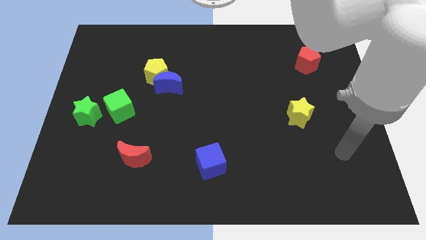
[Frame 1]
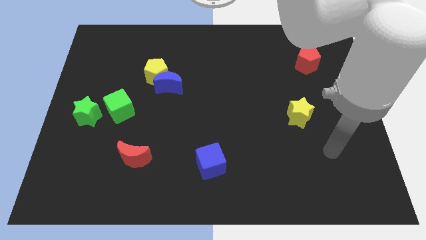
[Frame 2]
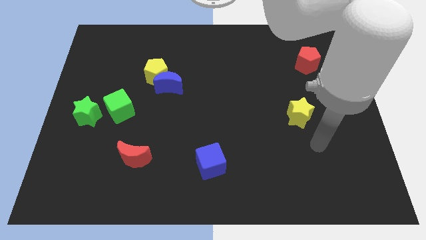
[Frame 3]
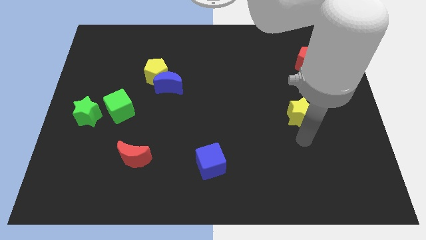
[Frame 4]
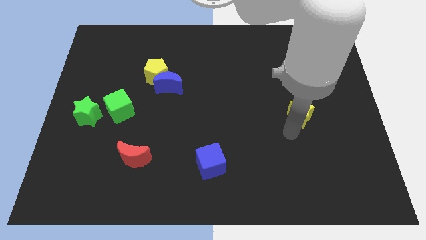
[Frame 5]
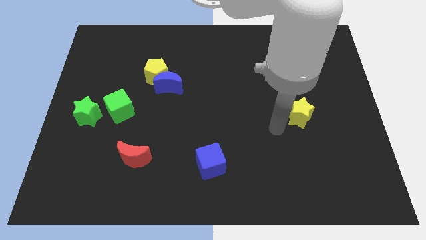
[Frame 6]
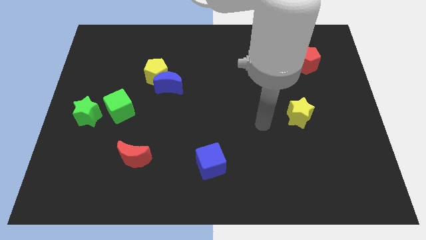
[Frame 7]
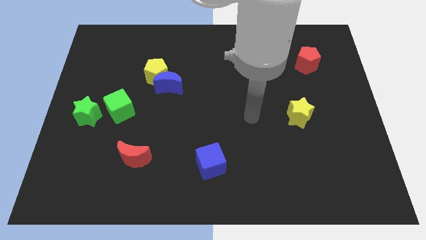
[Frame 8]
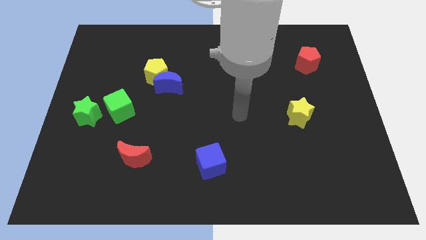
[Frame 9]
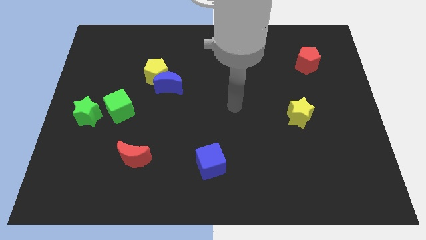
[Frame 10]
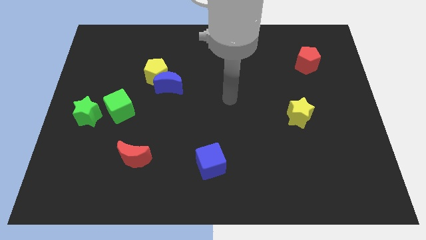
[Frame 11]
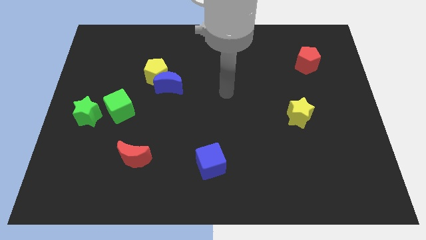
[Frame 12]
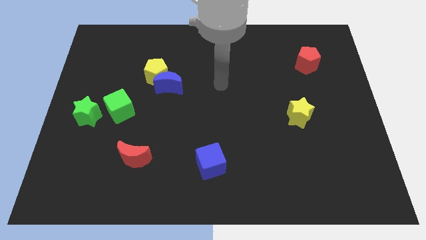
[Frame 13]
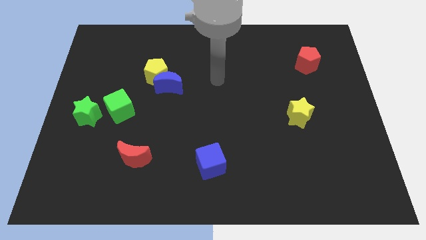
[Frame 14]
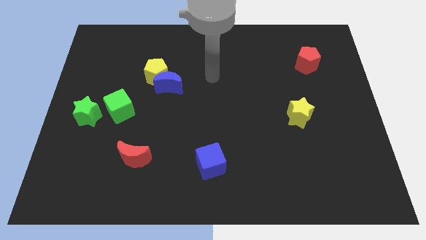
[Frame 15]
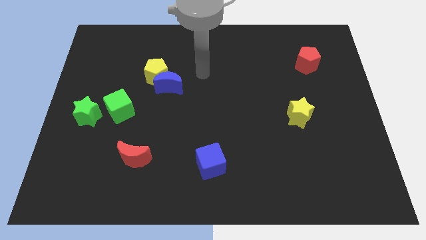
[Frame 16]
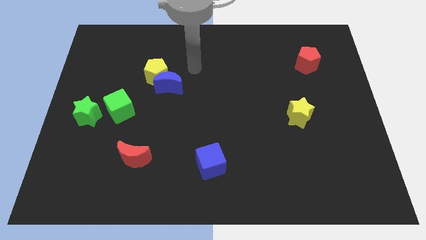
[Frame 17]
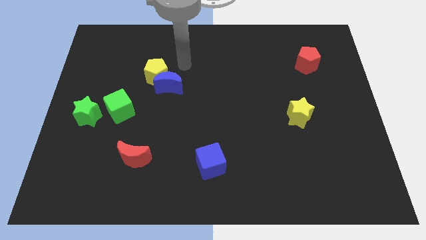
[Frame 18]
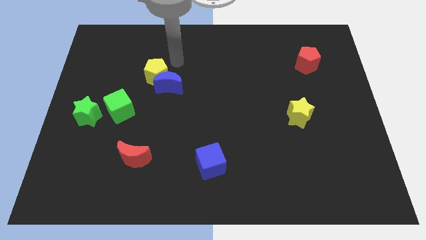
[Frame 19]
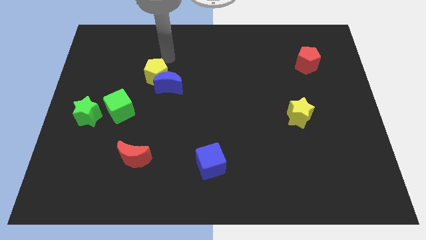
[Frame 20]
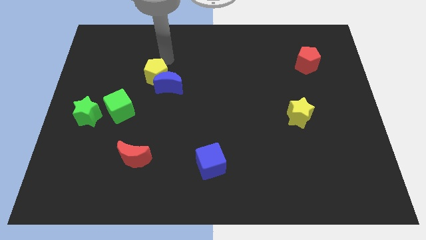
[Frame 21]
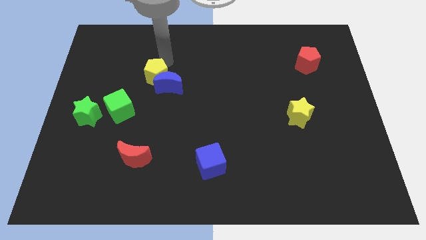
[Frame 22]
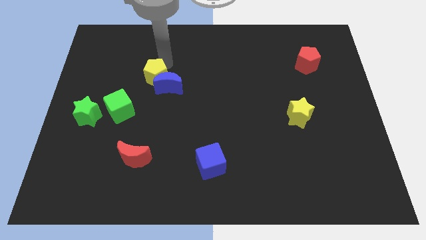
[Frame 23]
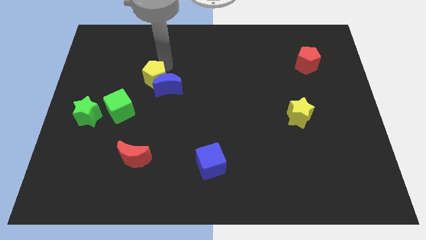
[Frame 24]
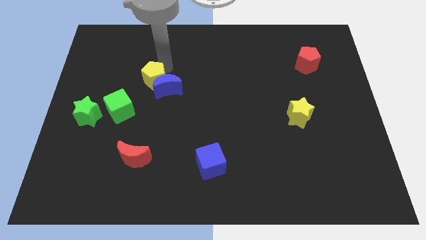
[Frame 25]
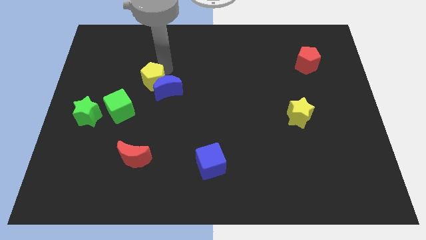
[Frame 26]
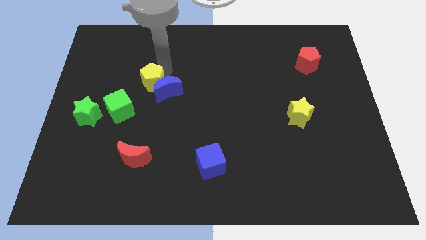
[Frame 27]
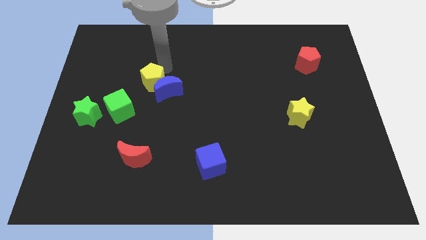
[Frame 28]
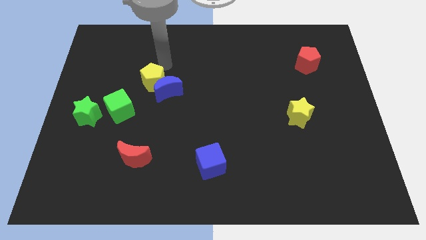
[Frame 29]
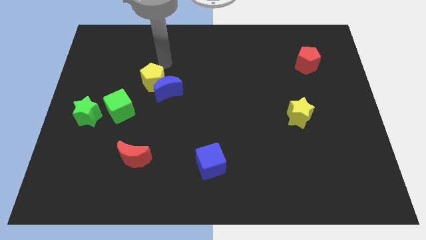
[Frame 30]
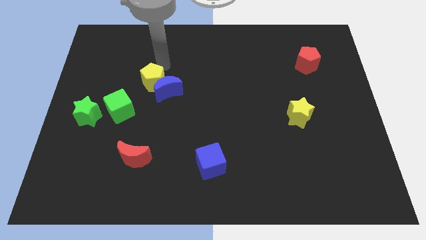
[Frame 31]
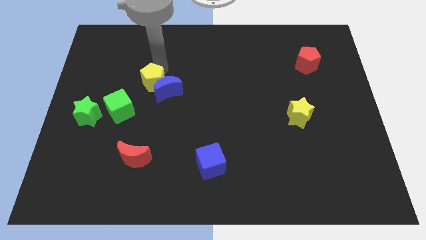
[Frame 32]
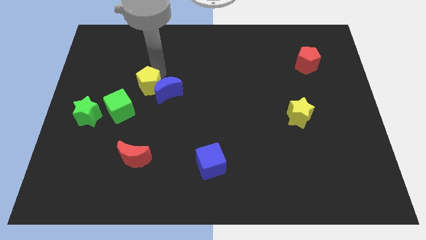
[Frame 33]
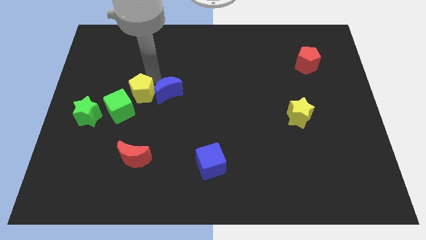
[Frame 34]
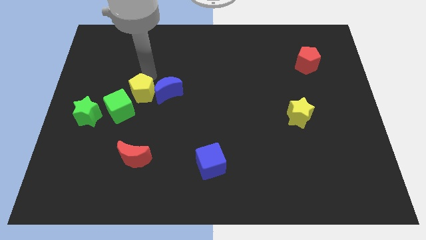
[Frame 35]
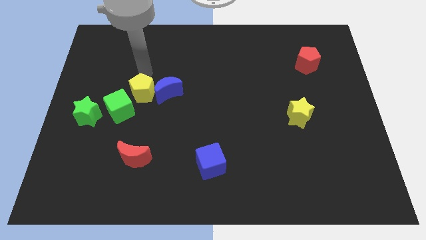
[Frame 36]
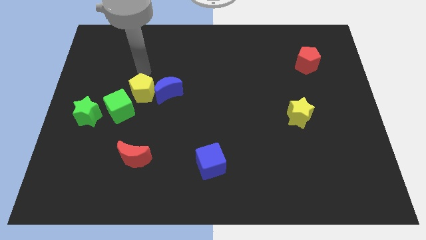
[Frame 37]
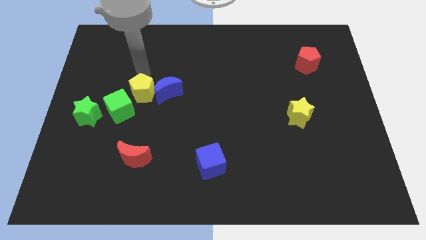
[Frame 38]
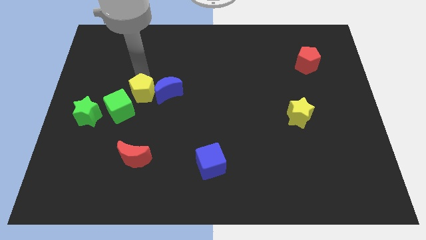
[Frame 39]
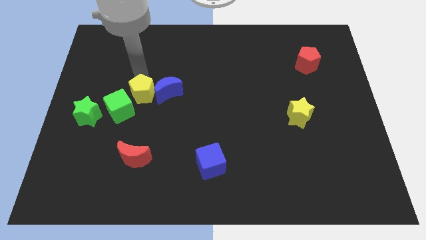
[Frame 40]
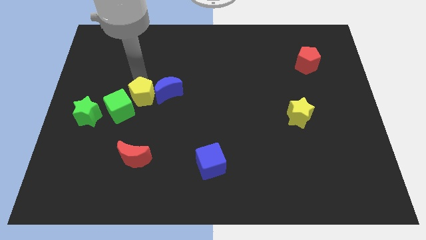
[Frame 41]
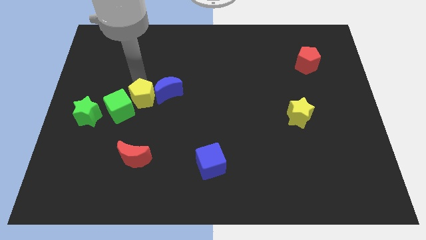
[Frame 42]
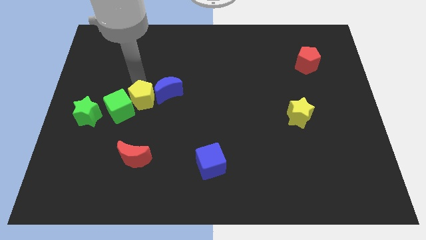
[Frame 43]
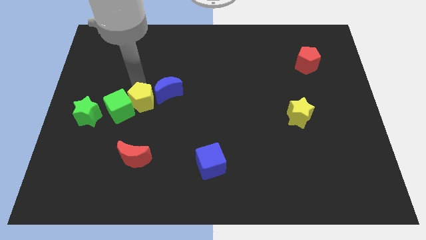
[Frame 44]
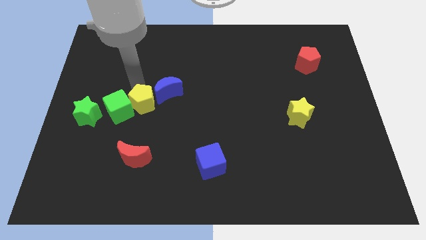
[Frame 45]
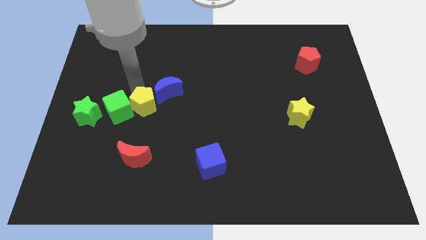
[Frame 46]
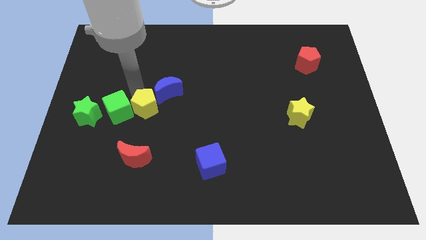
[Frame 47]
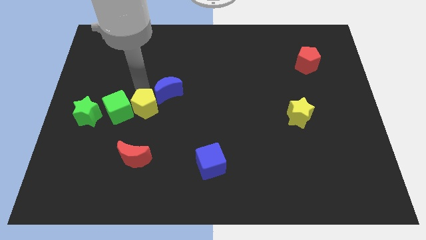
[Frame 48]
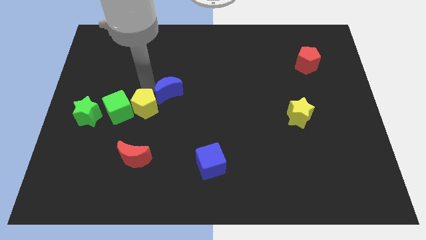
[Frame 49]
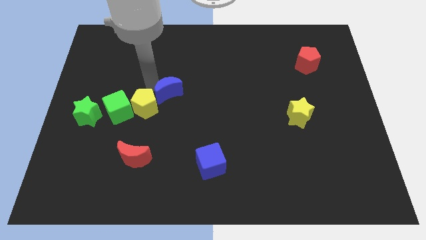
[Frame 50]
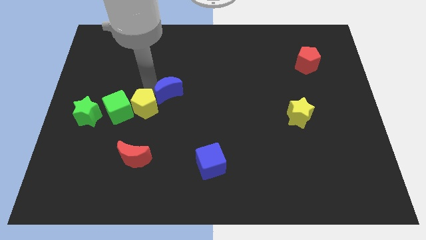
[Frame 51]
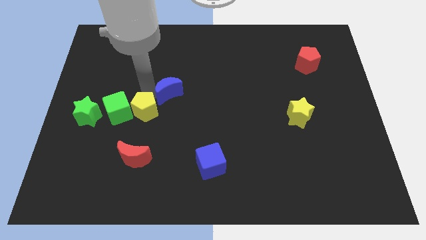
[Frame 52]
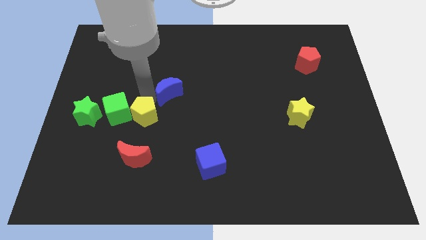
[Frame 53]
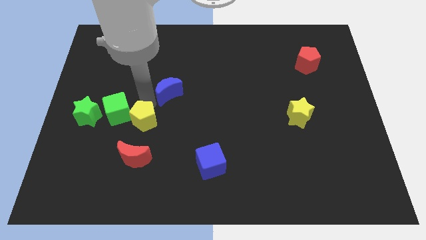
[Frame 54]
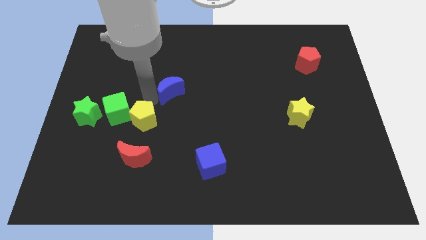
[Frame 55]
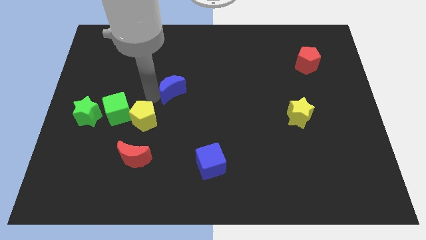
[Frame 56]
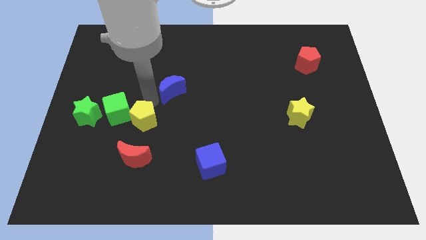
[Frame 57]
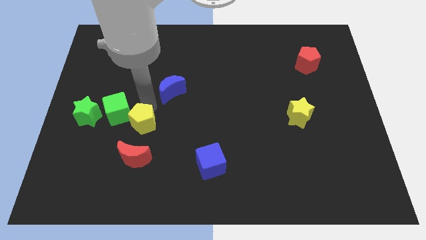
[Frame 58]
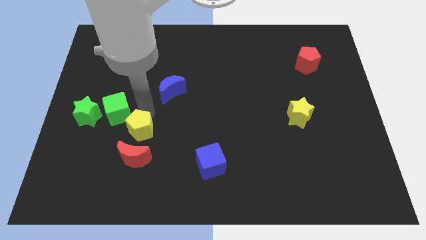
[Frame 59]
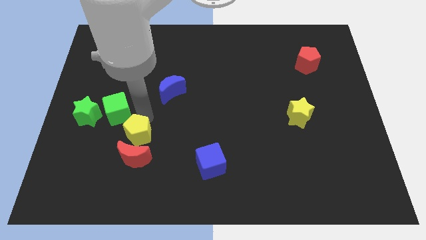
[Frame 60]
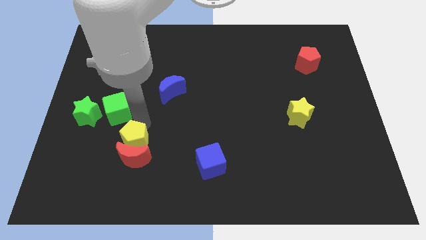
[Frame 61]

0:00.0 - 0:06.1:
put the yellow pentagon to the red moon

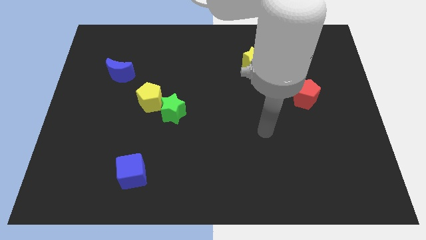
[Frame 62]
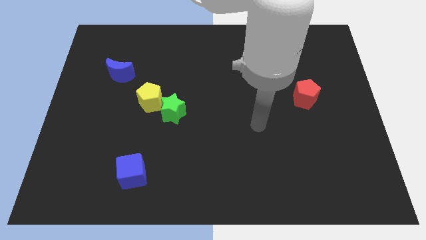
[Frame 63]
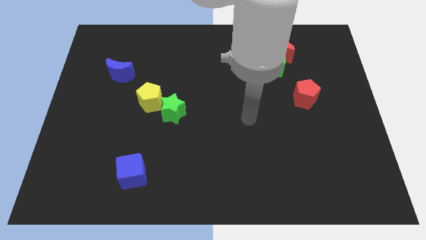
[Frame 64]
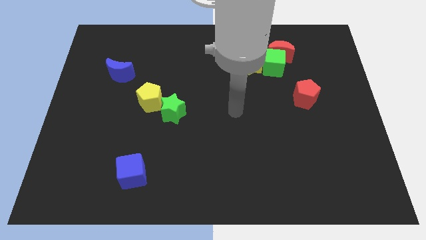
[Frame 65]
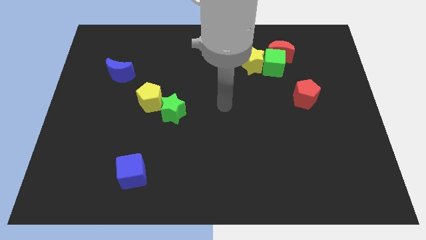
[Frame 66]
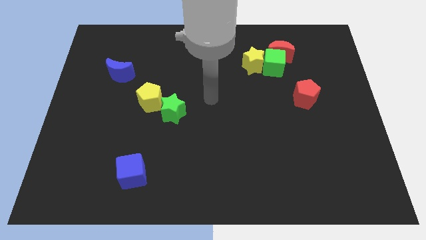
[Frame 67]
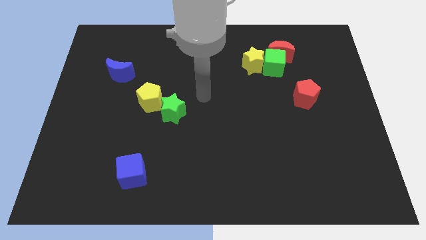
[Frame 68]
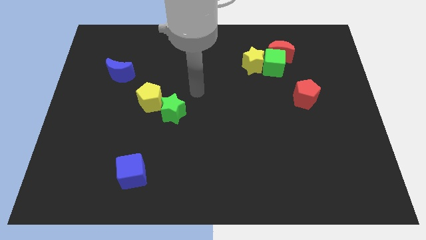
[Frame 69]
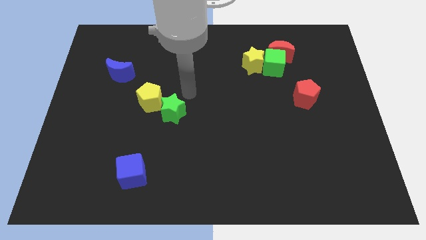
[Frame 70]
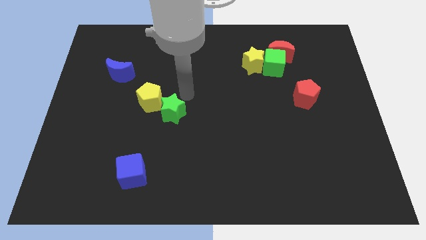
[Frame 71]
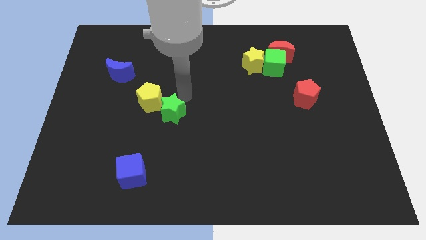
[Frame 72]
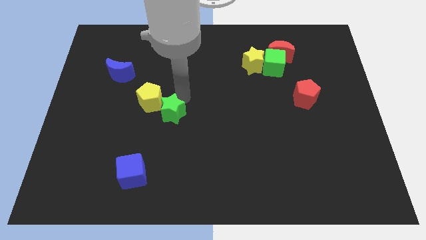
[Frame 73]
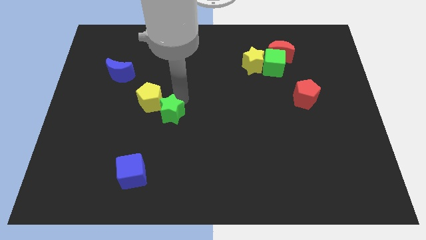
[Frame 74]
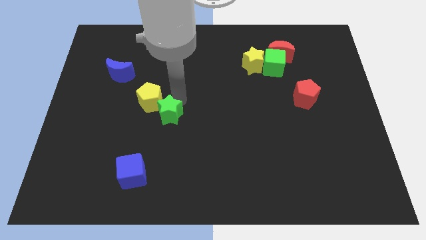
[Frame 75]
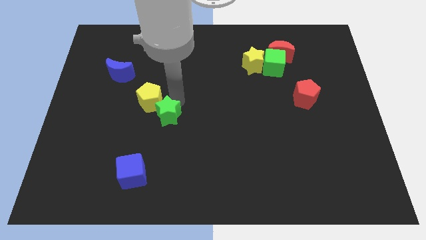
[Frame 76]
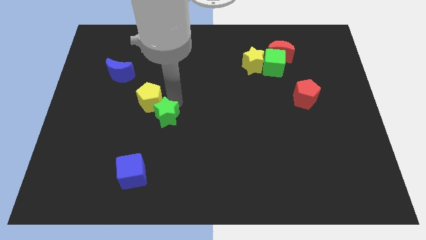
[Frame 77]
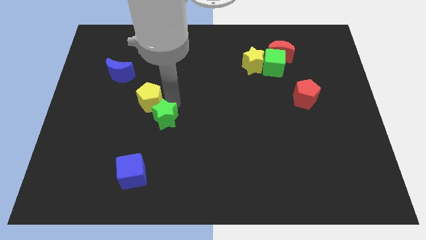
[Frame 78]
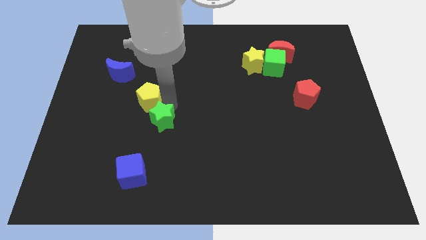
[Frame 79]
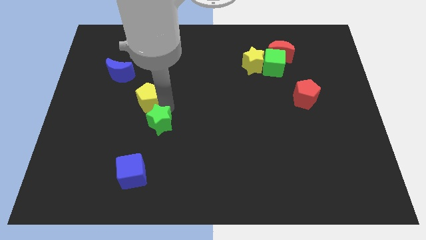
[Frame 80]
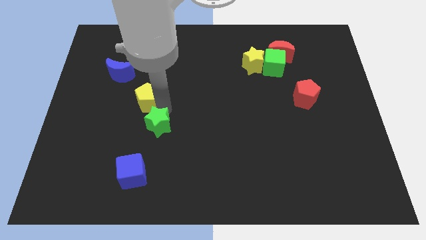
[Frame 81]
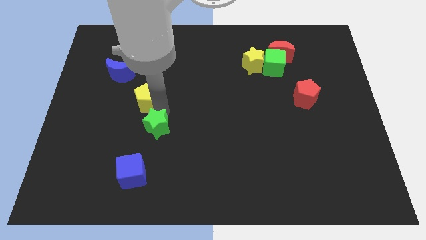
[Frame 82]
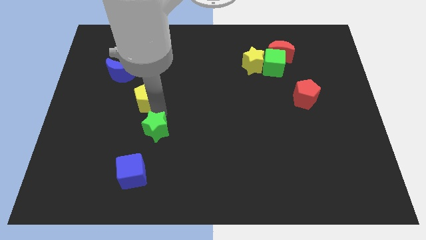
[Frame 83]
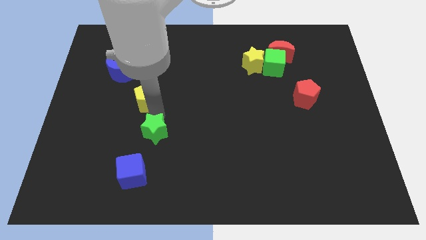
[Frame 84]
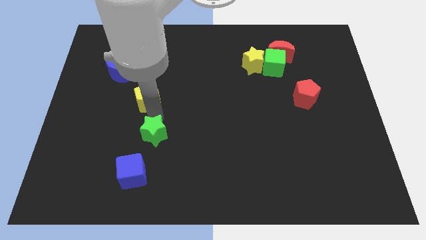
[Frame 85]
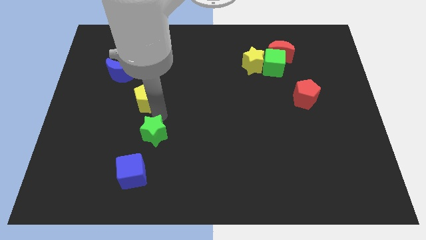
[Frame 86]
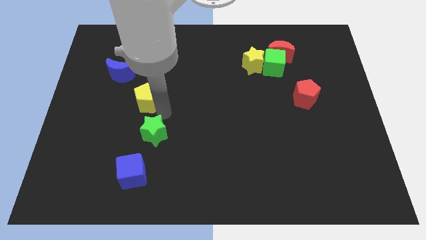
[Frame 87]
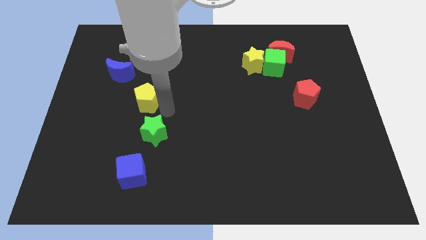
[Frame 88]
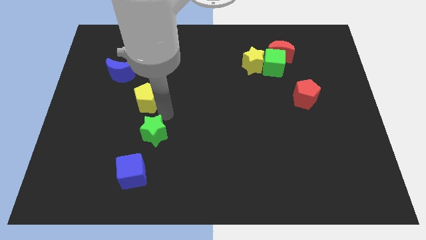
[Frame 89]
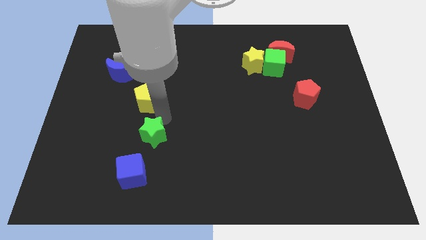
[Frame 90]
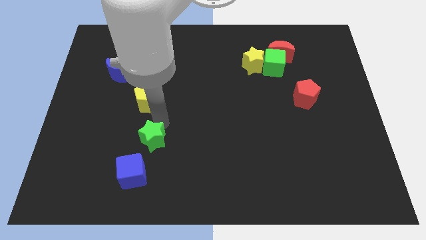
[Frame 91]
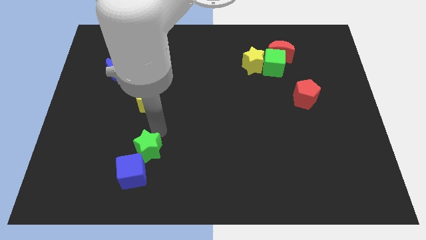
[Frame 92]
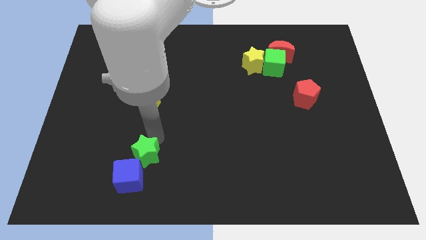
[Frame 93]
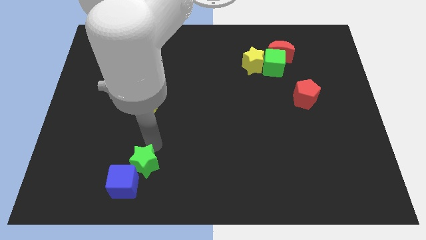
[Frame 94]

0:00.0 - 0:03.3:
slide the green star close to the blue cube
